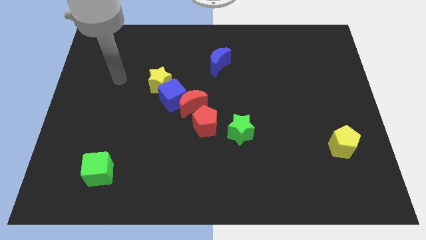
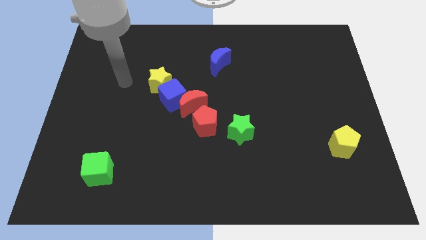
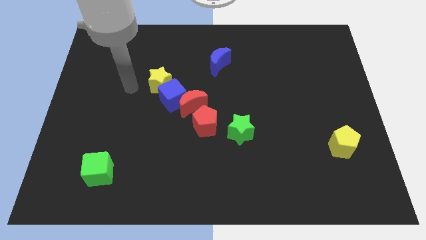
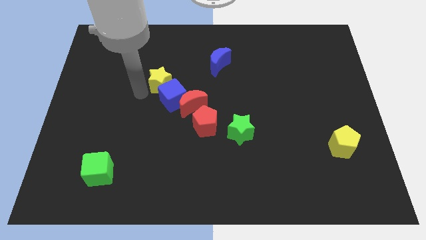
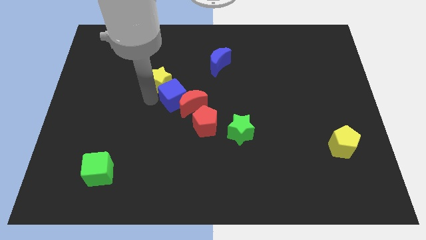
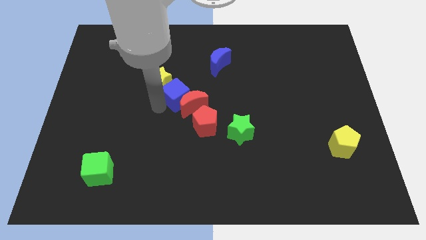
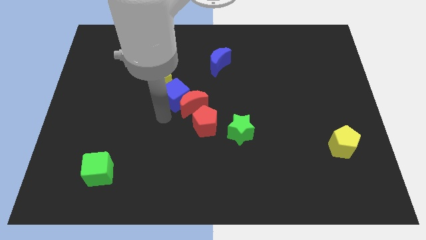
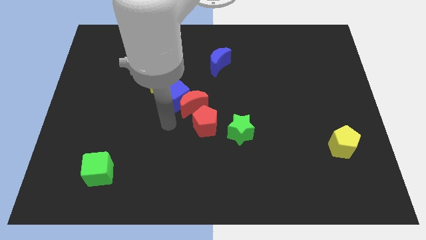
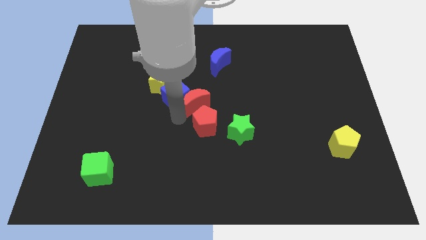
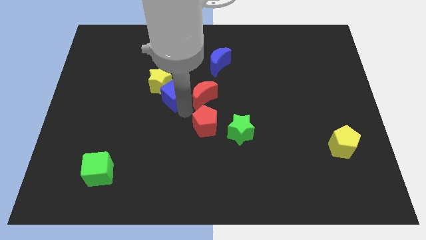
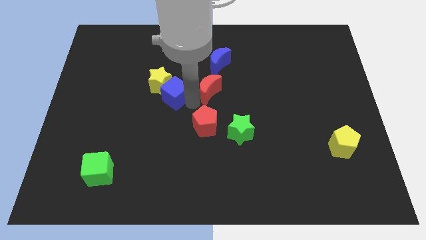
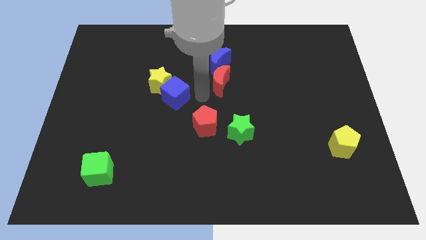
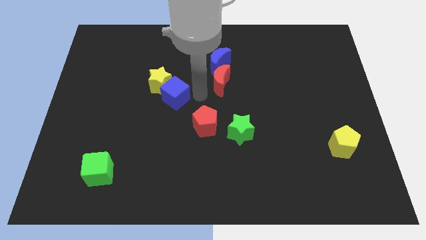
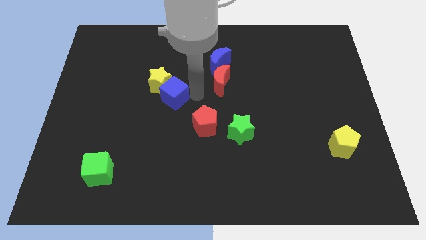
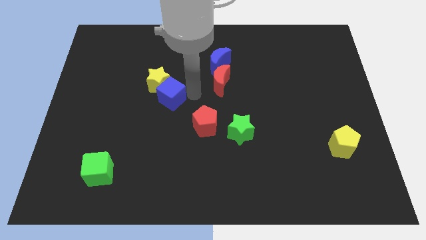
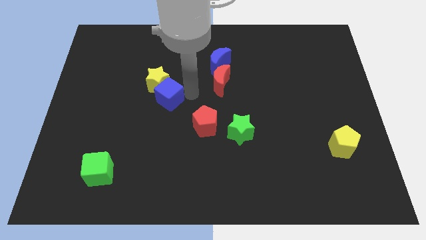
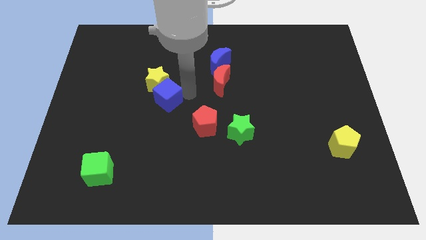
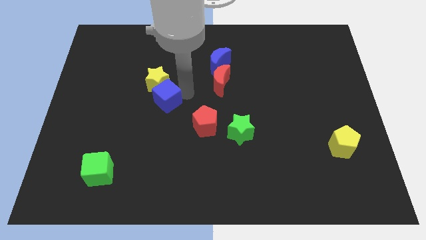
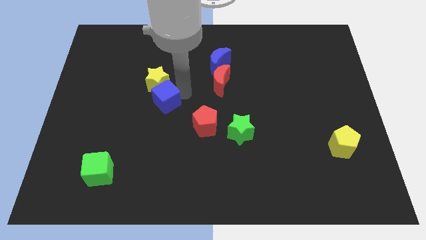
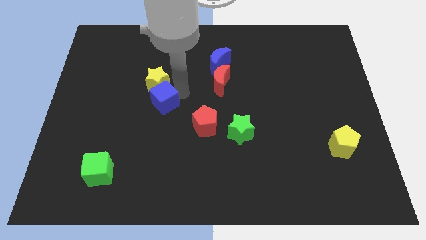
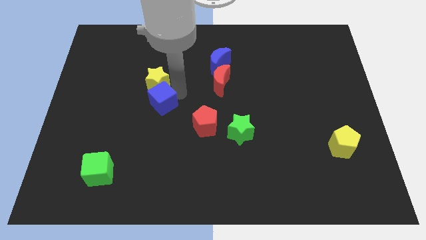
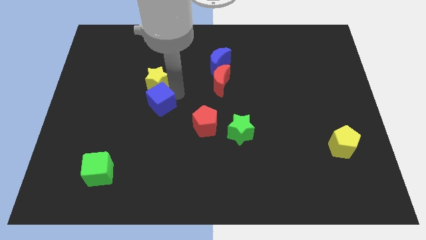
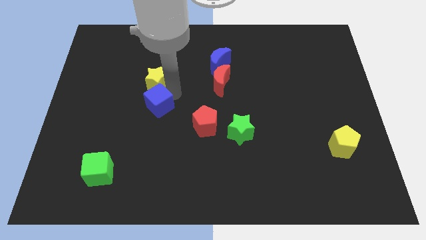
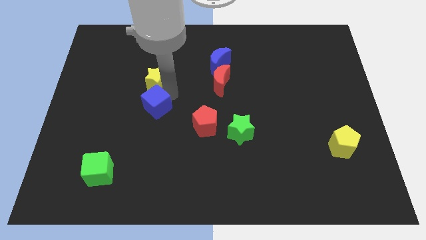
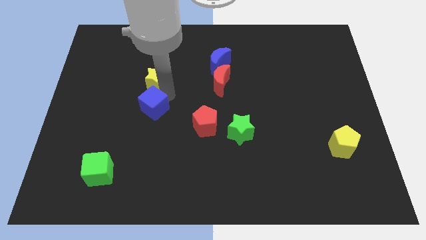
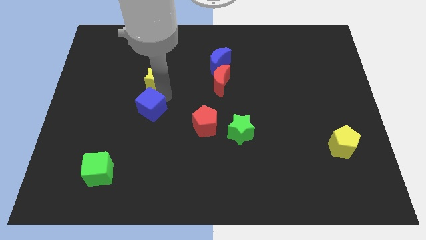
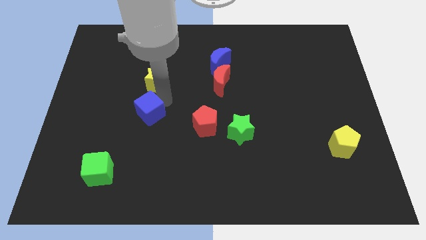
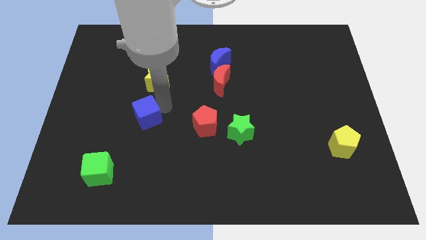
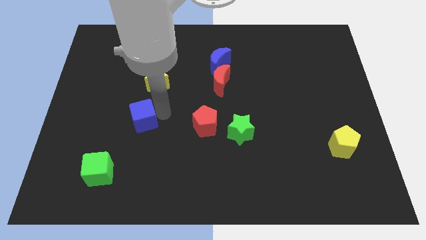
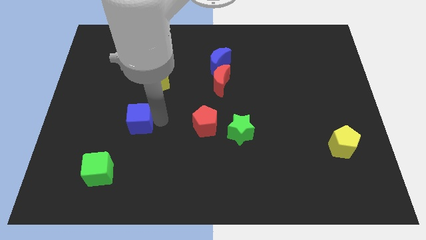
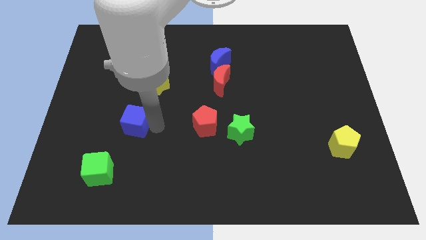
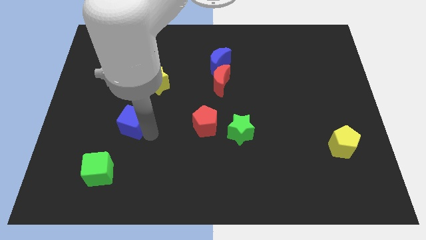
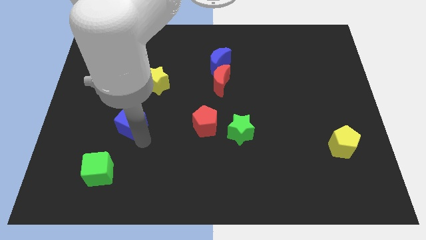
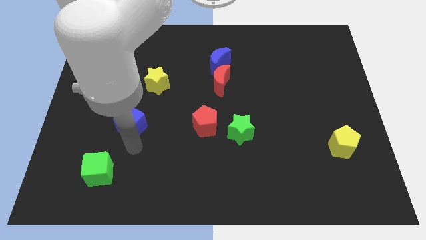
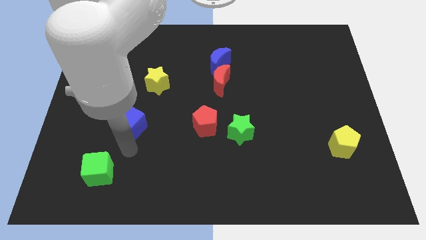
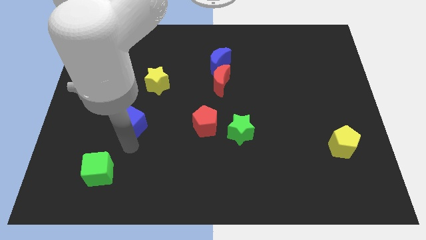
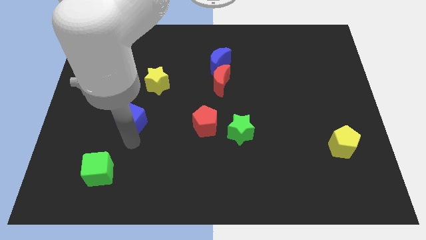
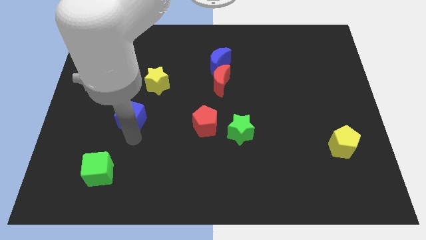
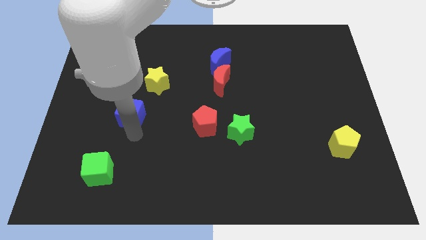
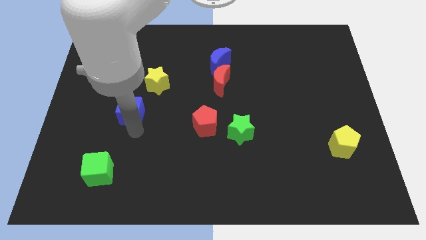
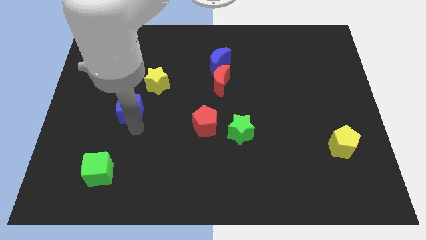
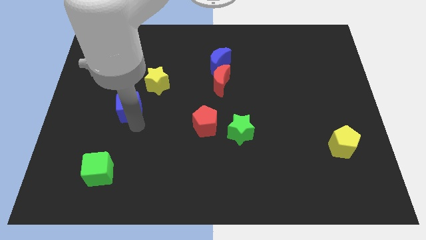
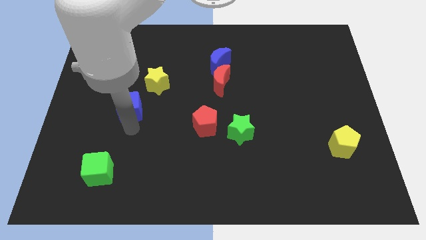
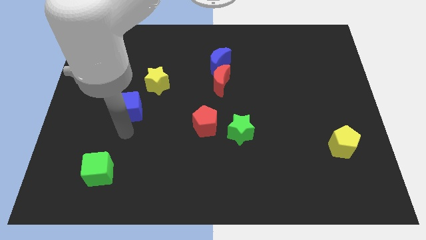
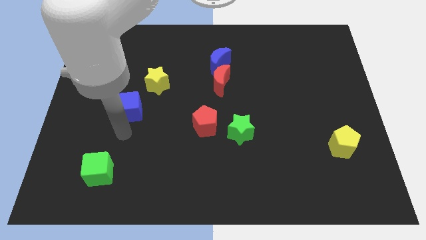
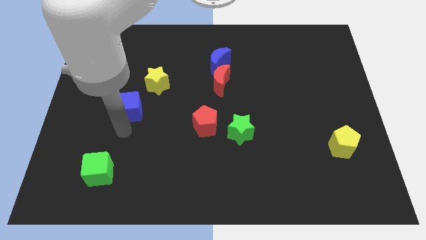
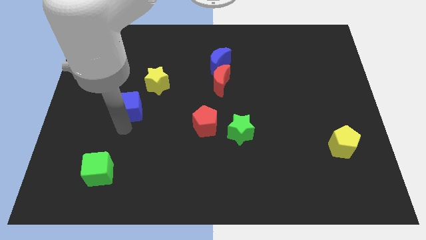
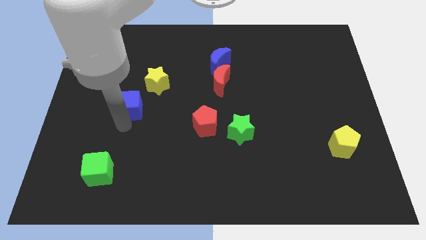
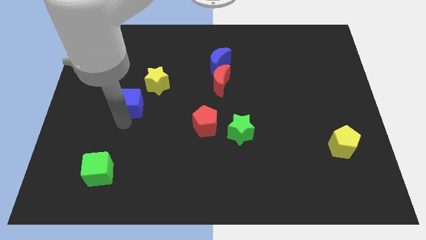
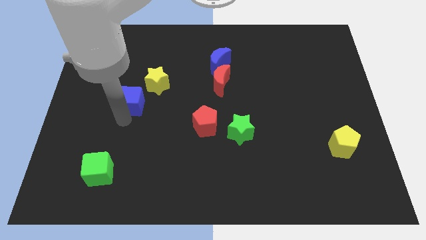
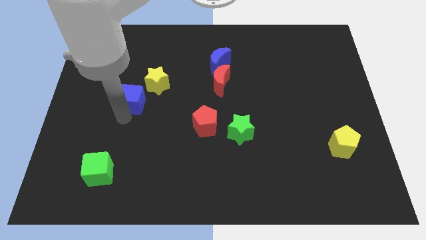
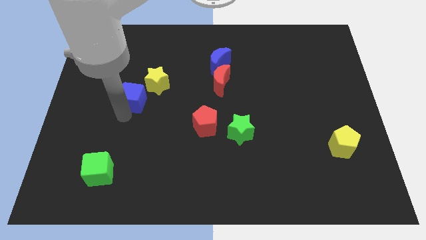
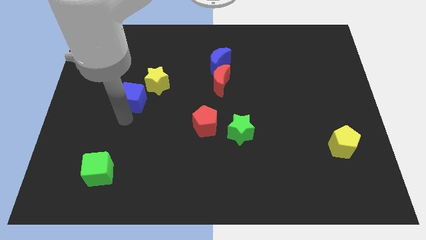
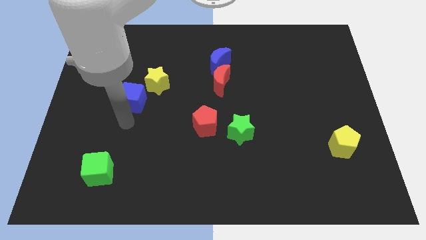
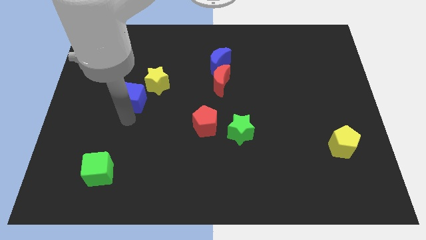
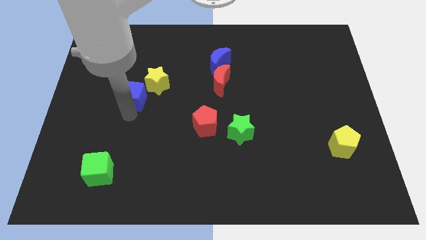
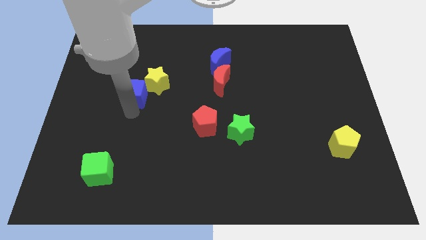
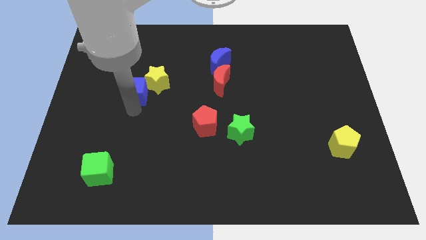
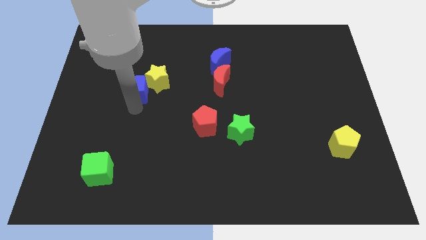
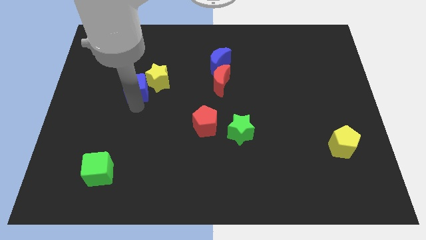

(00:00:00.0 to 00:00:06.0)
slightly move the blue cube upwards and to the left diagonally

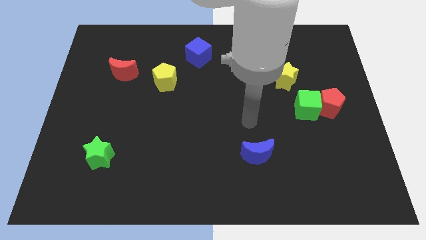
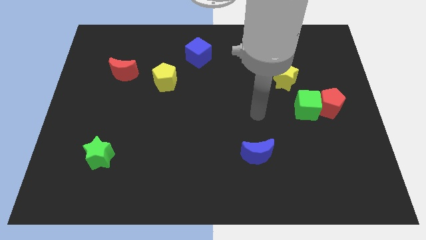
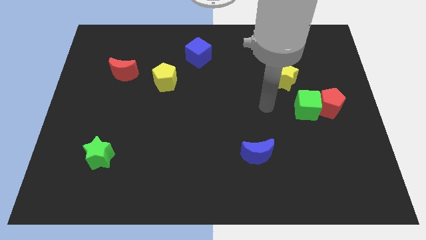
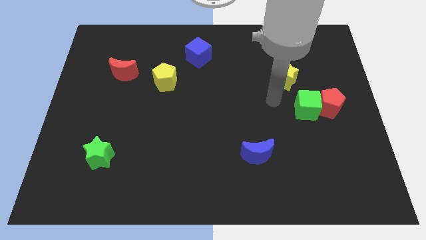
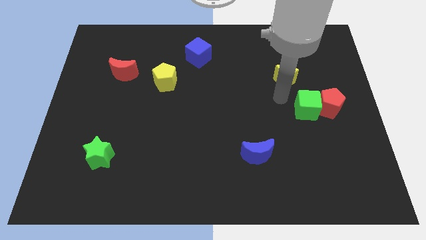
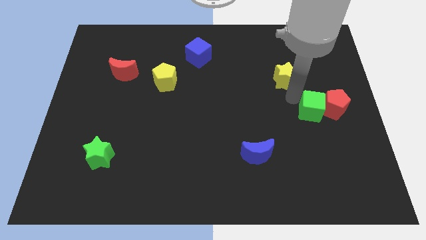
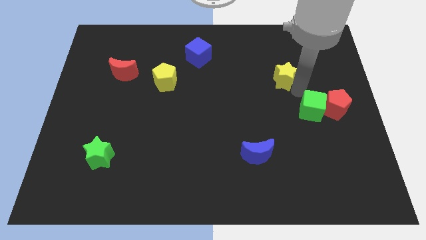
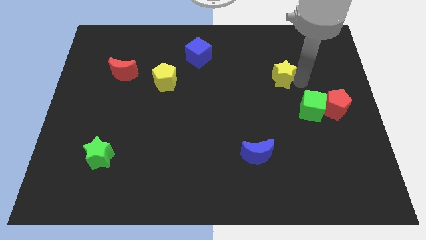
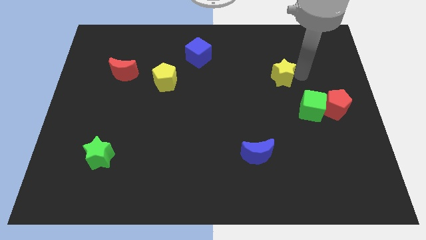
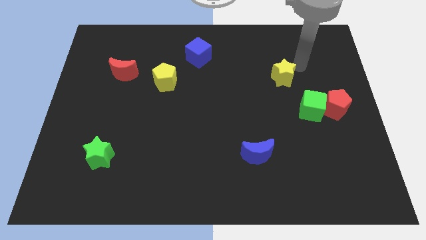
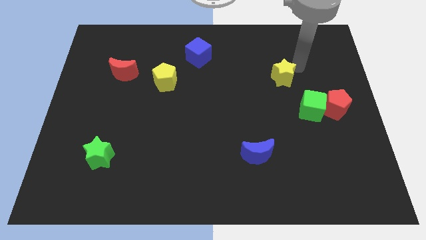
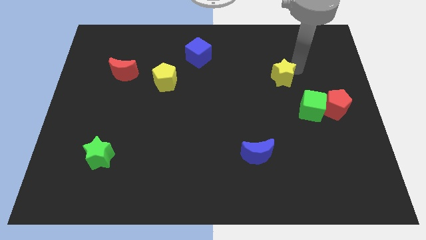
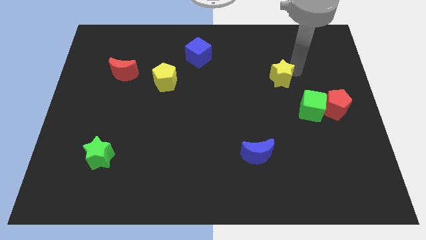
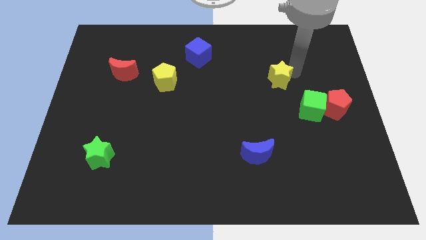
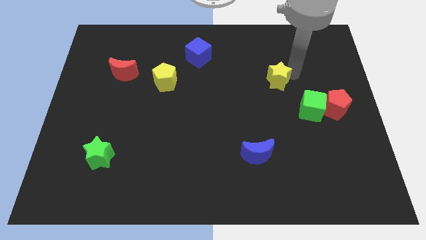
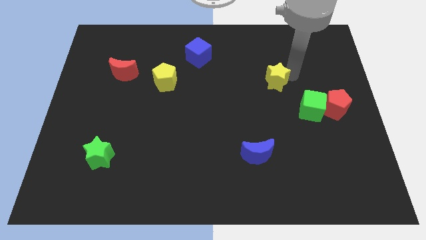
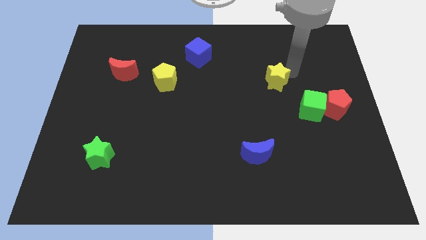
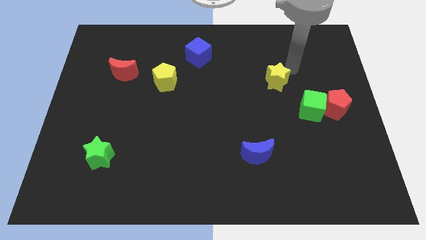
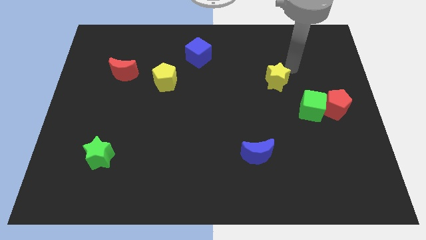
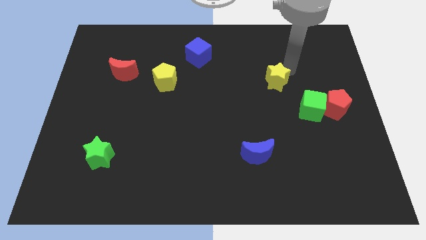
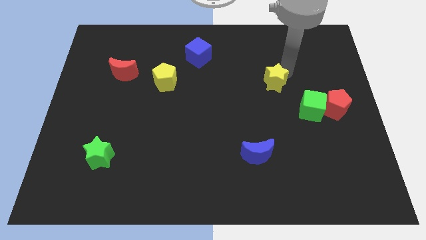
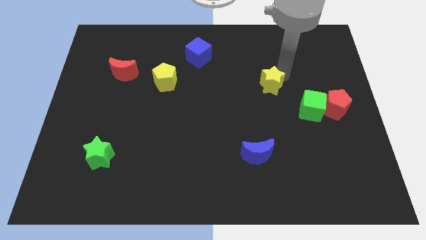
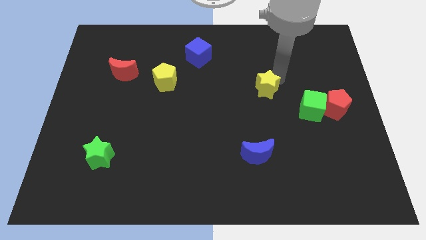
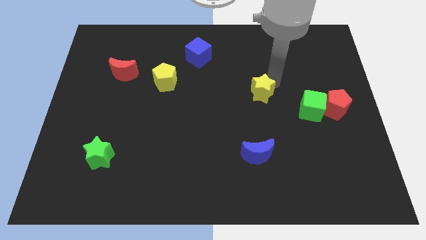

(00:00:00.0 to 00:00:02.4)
slightly push the yellow star downwards and then left
